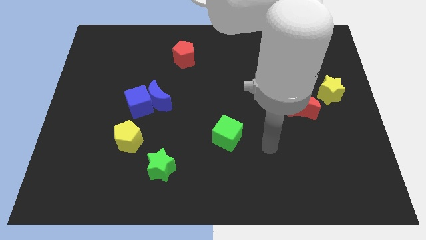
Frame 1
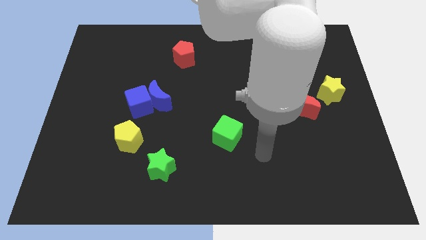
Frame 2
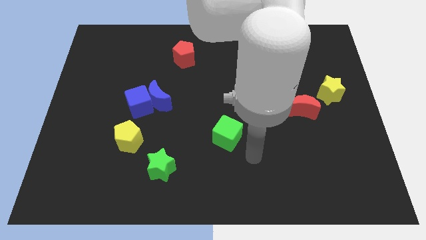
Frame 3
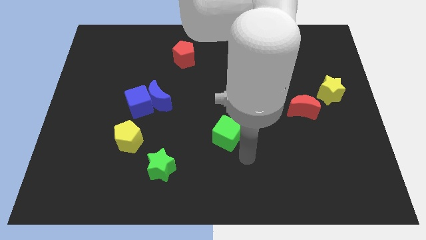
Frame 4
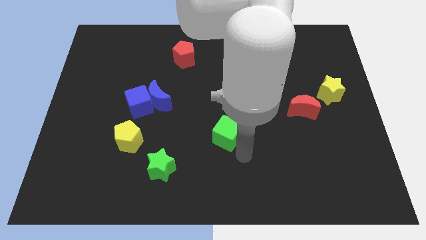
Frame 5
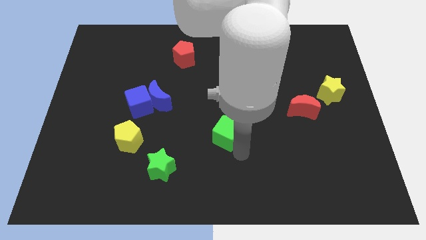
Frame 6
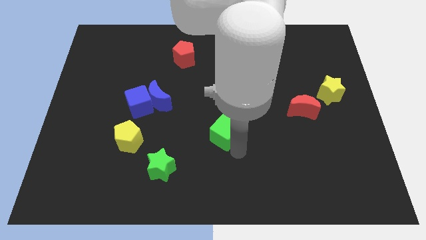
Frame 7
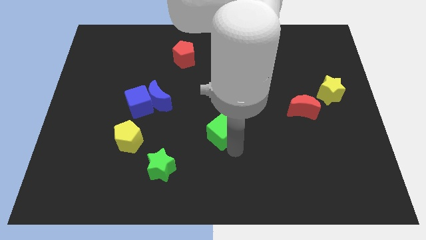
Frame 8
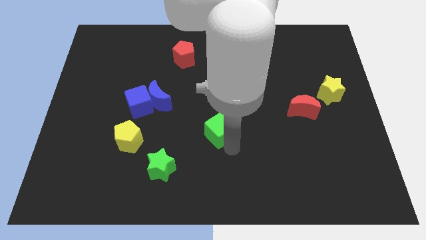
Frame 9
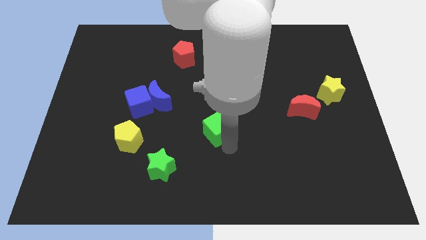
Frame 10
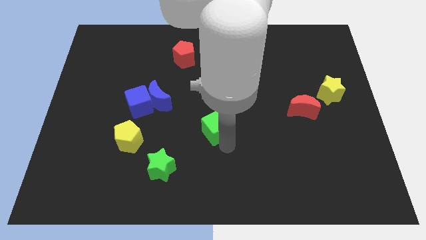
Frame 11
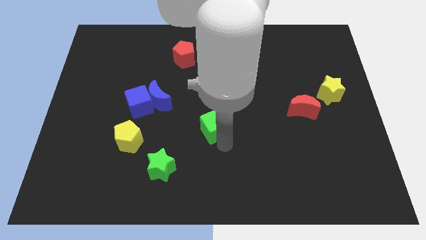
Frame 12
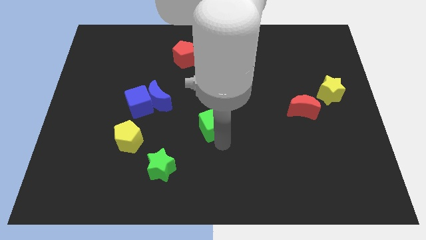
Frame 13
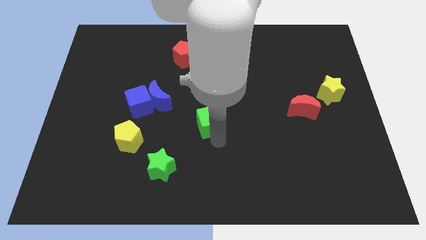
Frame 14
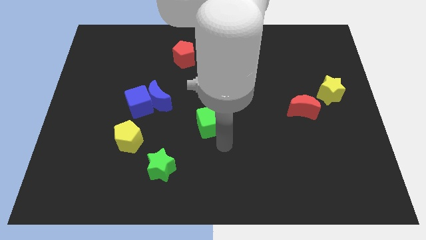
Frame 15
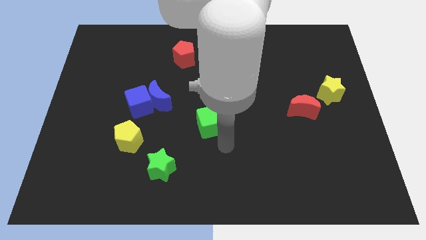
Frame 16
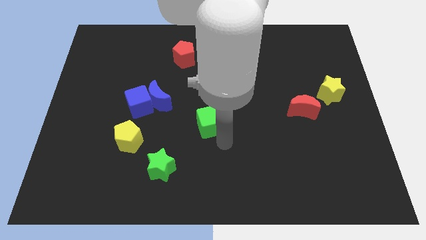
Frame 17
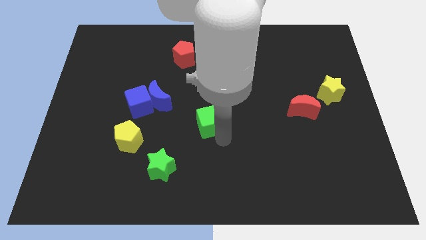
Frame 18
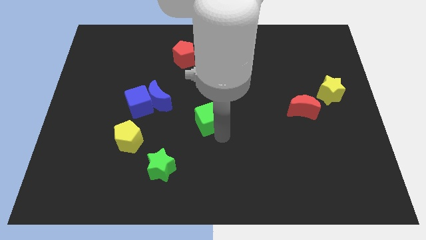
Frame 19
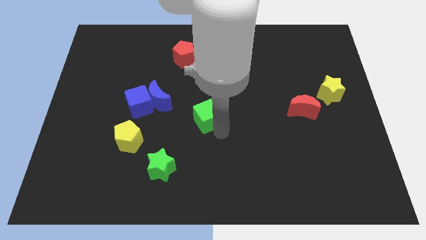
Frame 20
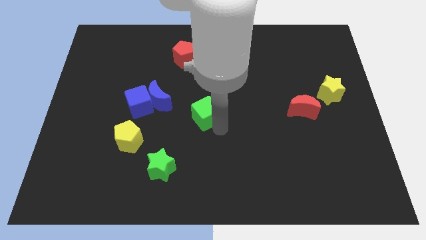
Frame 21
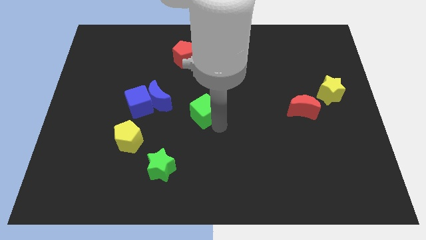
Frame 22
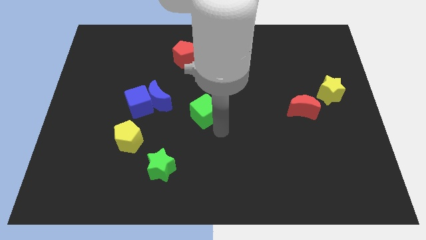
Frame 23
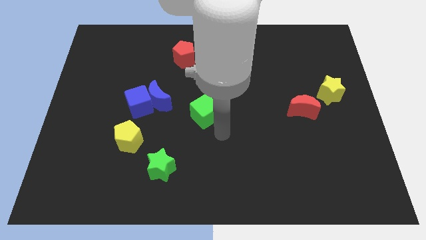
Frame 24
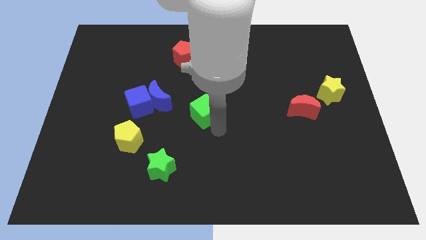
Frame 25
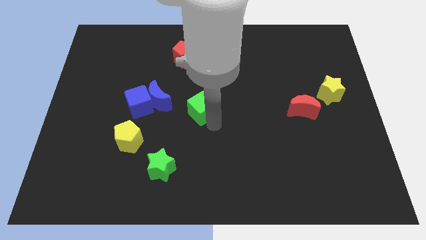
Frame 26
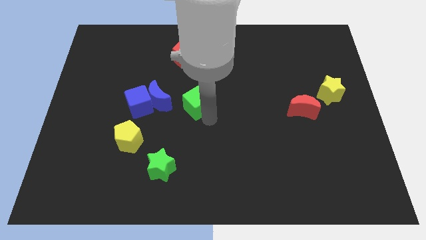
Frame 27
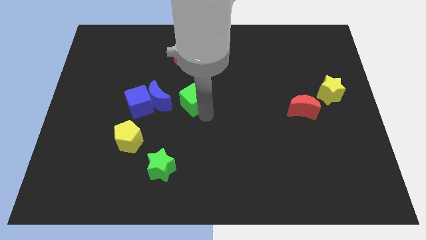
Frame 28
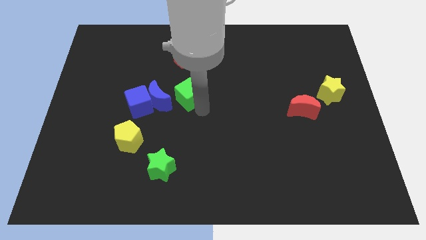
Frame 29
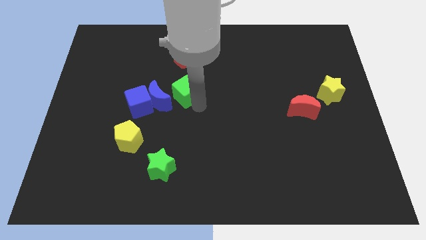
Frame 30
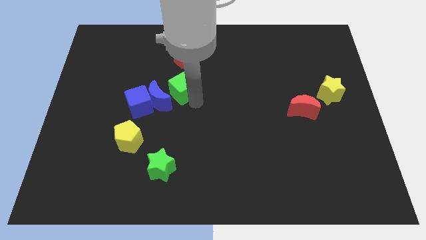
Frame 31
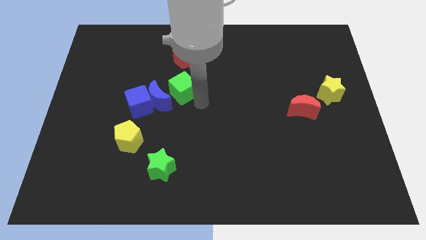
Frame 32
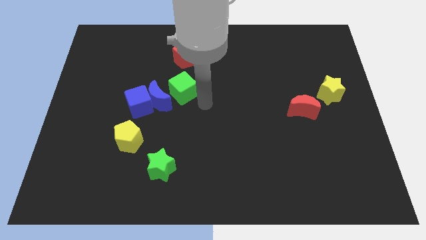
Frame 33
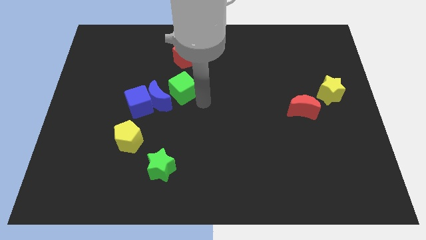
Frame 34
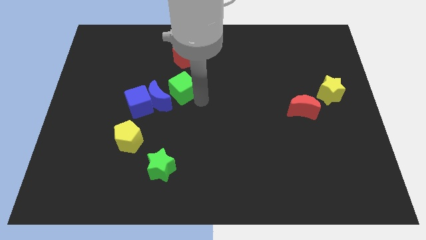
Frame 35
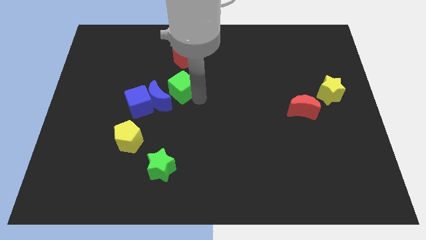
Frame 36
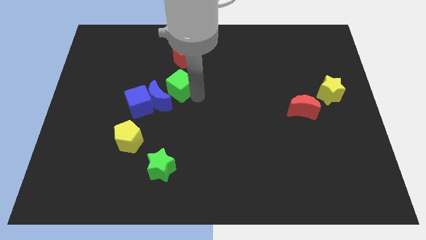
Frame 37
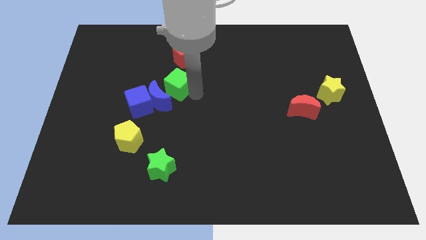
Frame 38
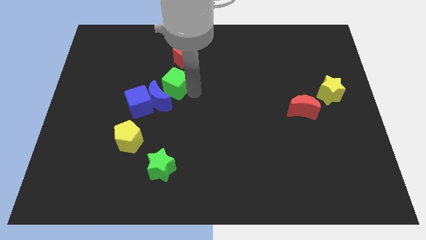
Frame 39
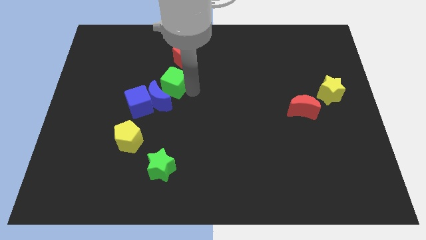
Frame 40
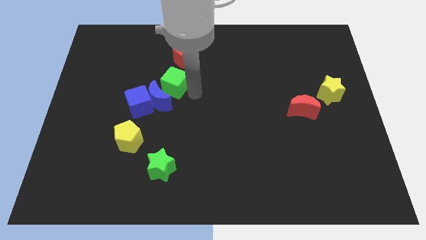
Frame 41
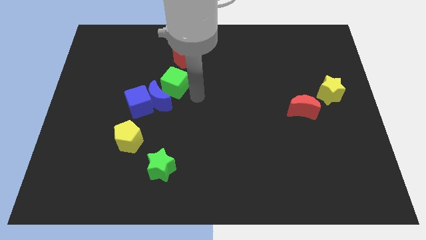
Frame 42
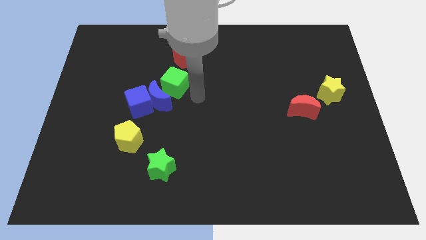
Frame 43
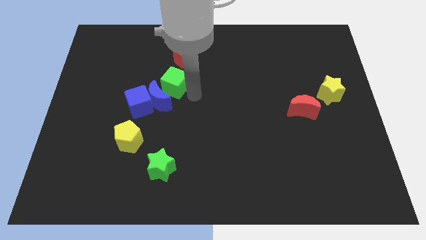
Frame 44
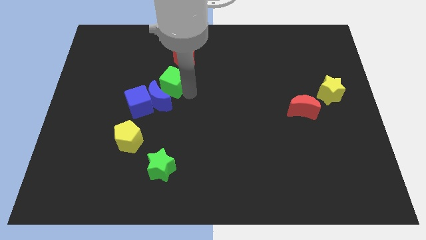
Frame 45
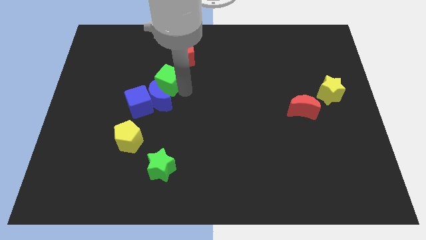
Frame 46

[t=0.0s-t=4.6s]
push the green cube up and left diagonally

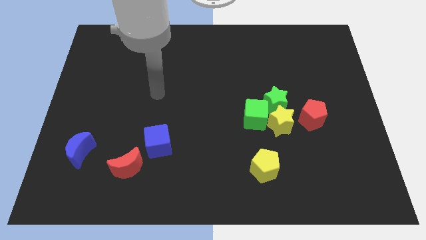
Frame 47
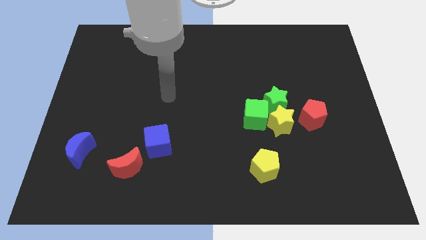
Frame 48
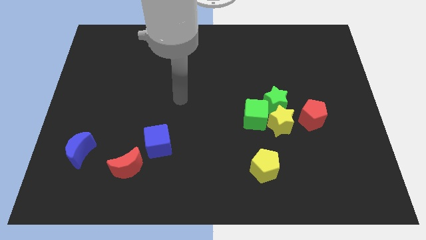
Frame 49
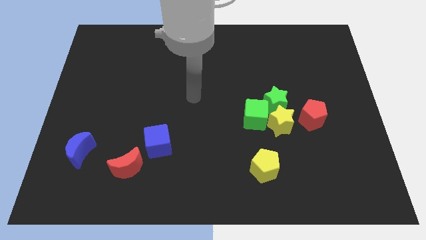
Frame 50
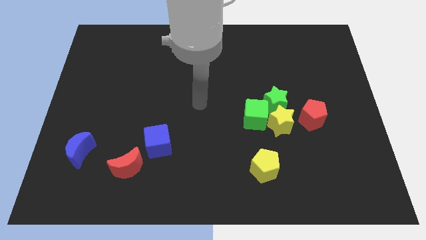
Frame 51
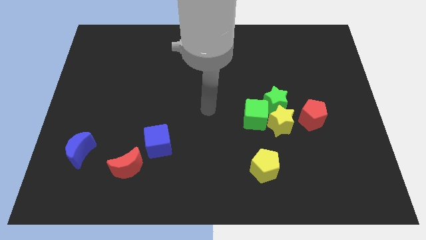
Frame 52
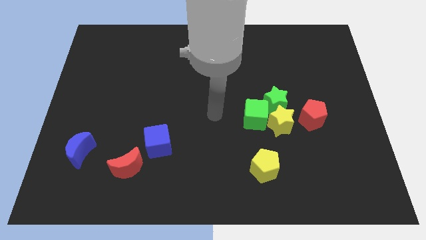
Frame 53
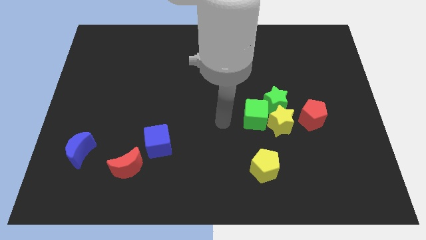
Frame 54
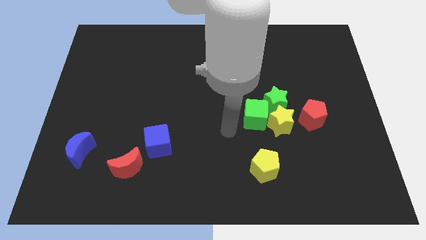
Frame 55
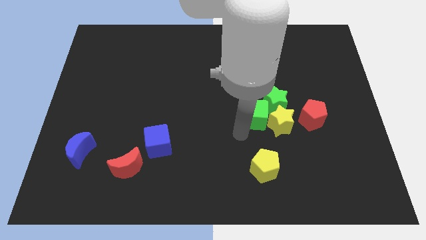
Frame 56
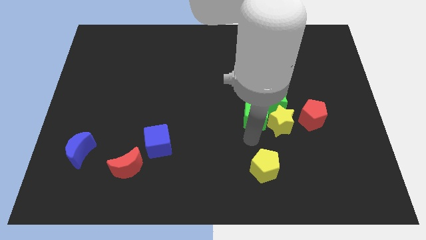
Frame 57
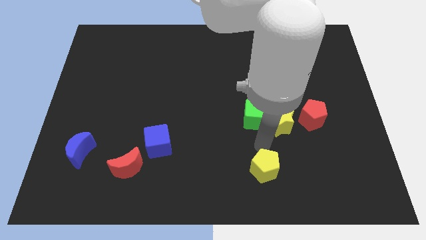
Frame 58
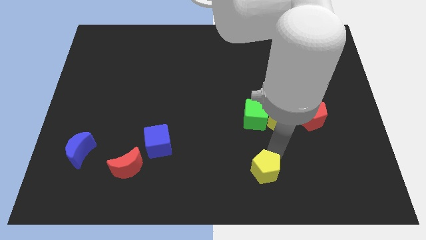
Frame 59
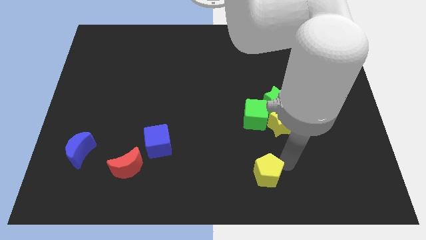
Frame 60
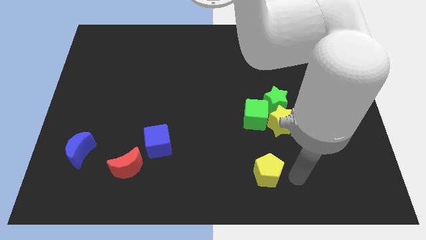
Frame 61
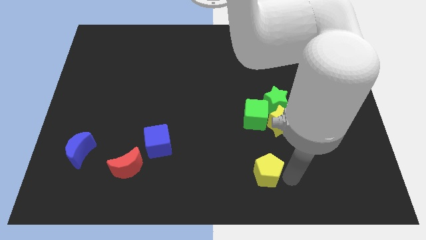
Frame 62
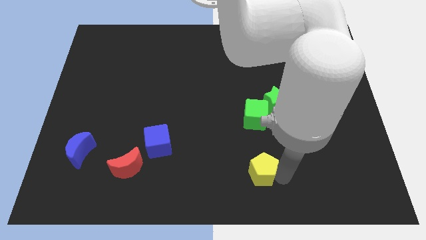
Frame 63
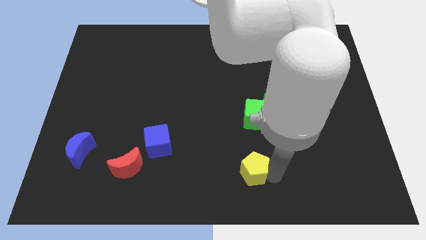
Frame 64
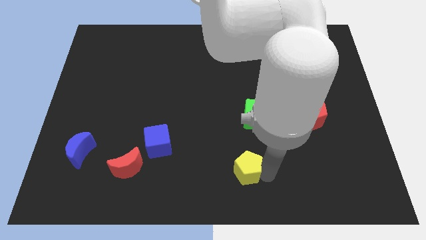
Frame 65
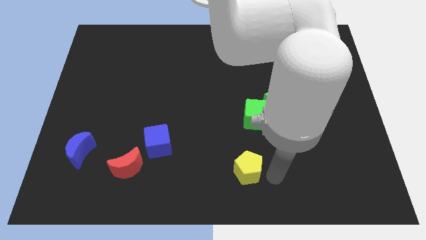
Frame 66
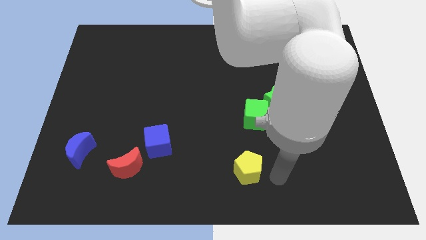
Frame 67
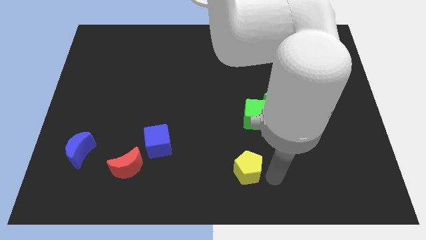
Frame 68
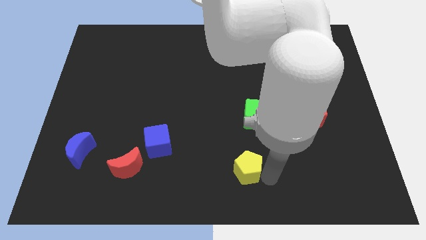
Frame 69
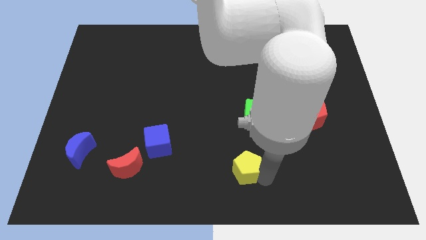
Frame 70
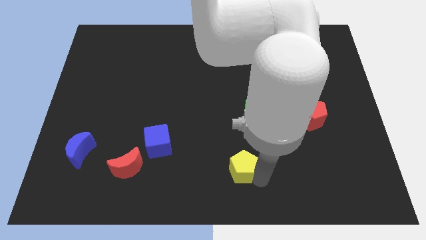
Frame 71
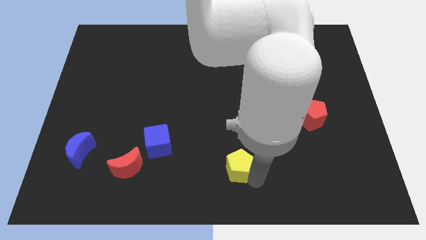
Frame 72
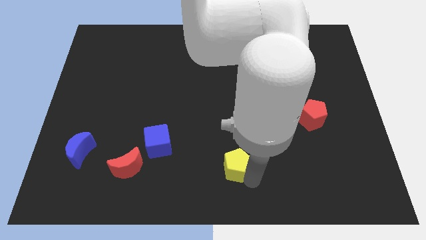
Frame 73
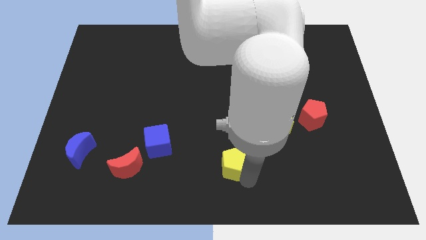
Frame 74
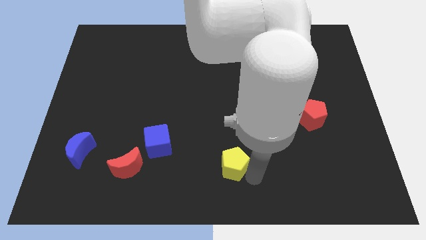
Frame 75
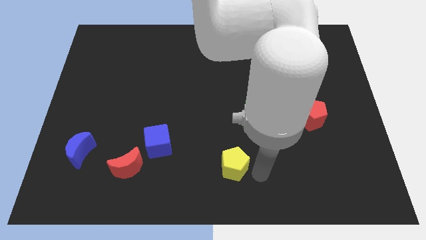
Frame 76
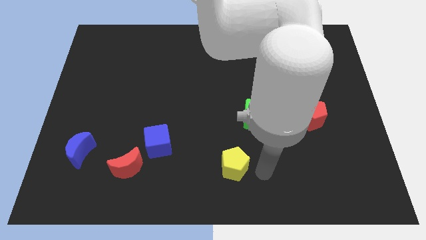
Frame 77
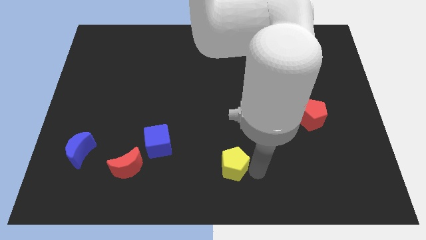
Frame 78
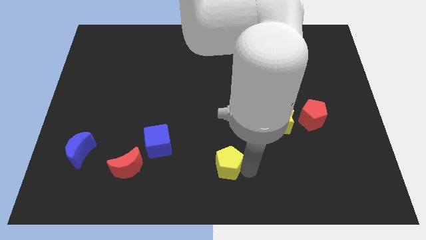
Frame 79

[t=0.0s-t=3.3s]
move the yellow pentagon left slightly
